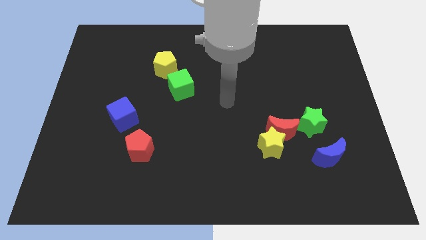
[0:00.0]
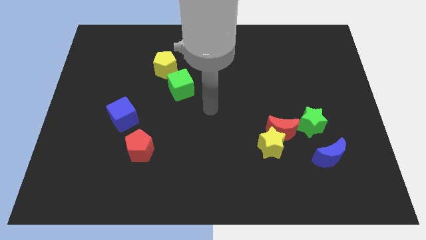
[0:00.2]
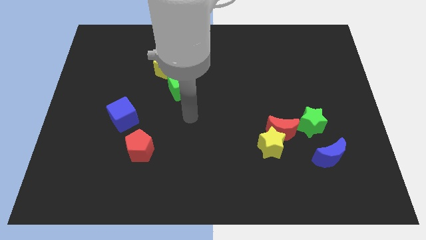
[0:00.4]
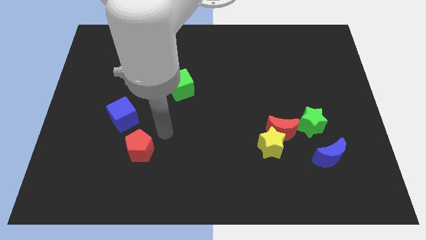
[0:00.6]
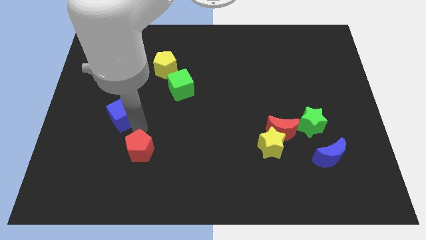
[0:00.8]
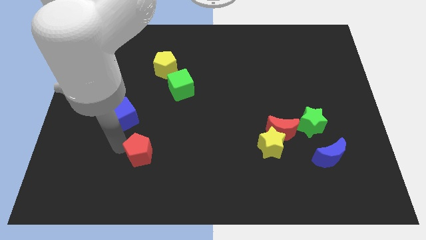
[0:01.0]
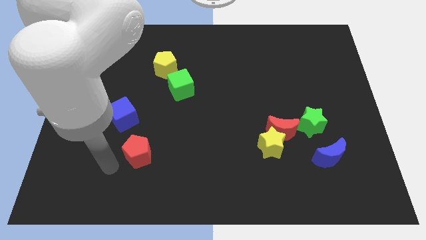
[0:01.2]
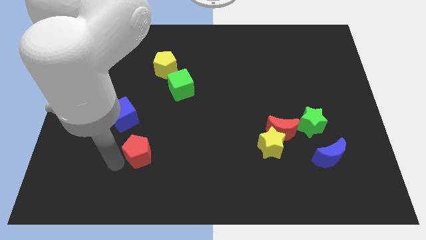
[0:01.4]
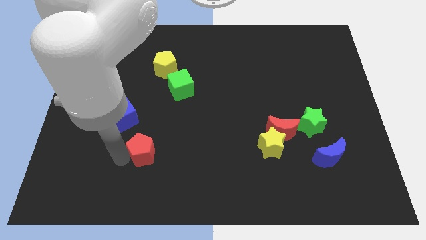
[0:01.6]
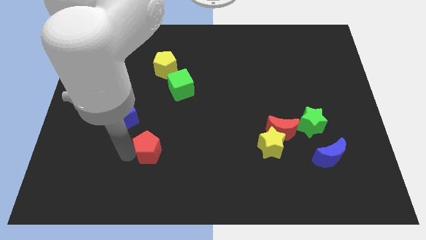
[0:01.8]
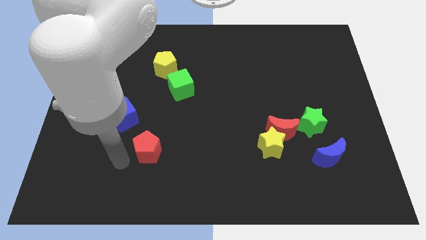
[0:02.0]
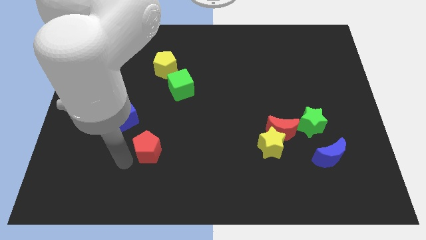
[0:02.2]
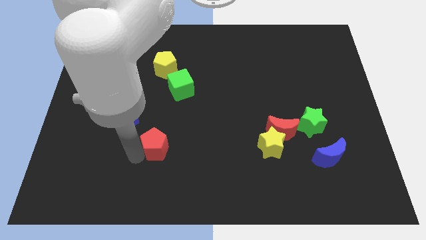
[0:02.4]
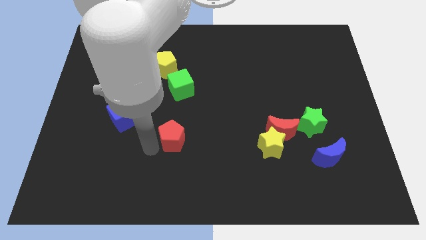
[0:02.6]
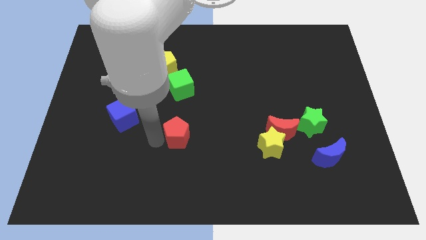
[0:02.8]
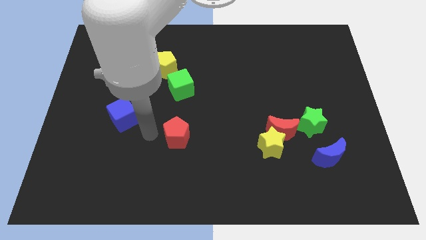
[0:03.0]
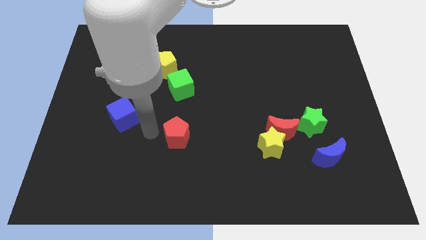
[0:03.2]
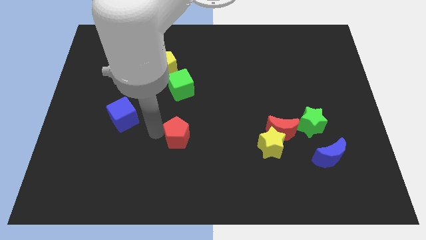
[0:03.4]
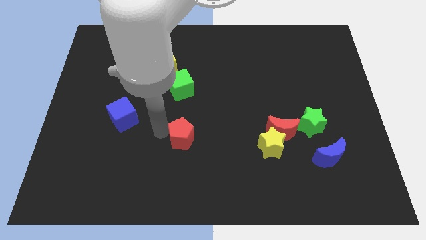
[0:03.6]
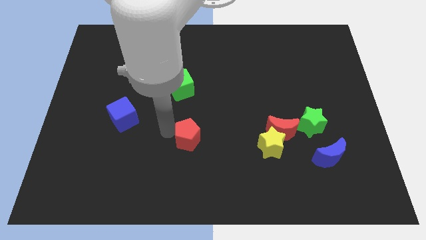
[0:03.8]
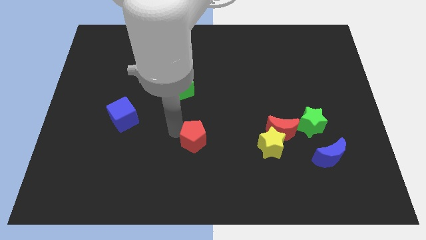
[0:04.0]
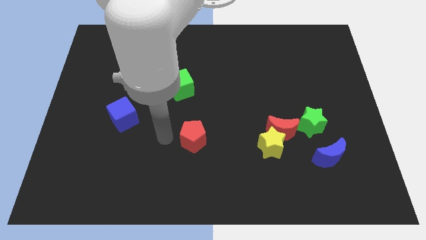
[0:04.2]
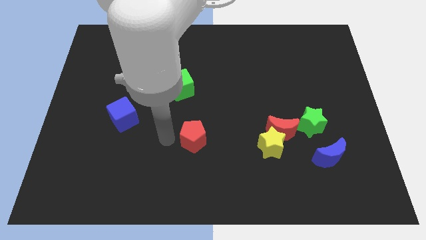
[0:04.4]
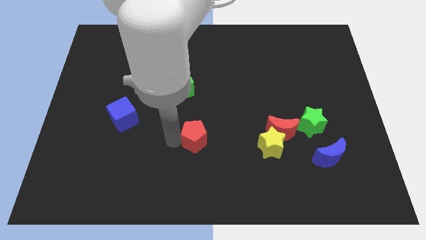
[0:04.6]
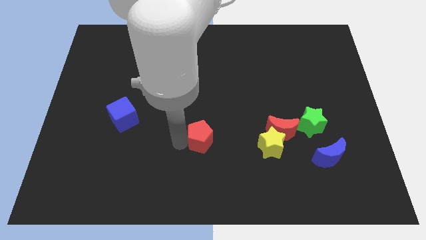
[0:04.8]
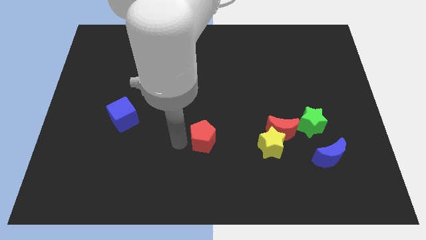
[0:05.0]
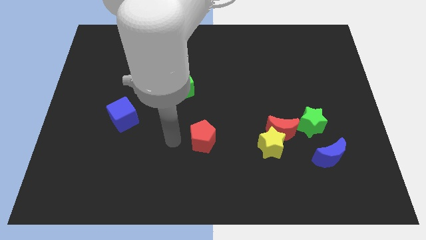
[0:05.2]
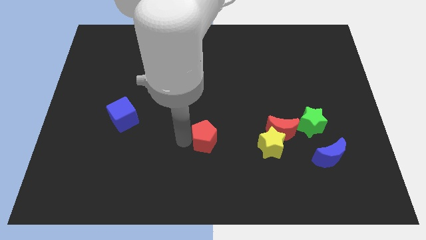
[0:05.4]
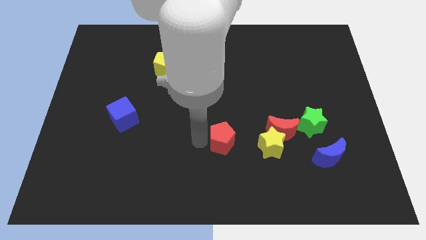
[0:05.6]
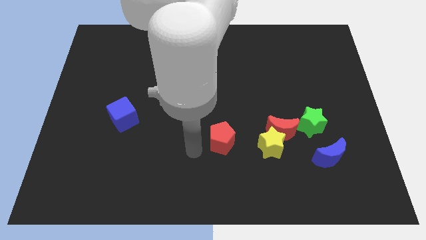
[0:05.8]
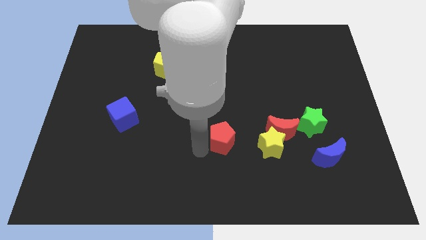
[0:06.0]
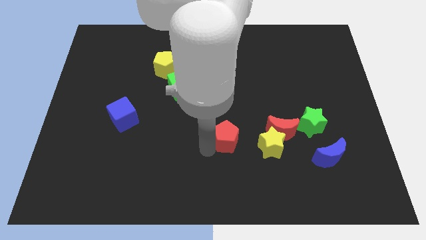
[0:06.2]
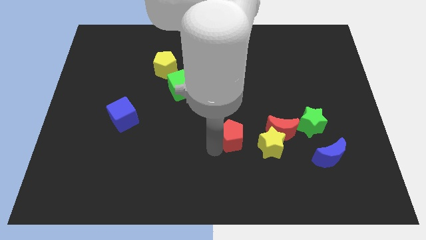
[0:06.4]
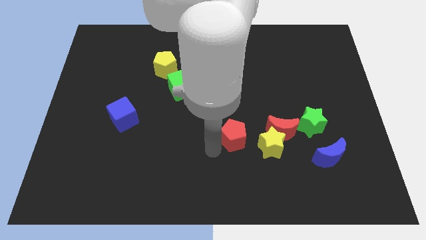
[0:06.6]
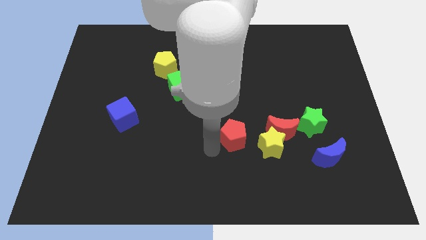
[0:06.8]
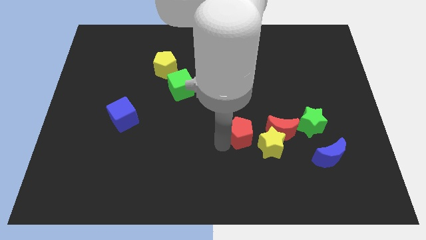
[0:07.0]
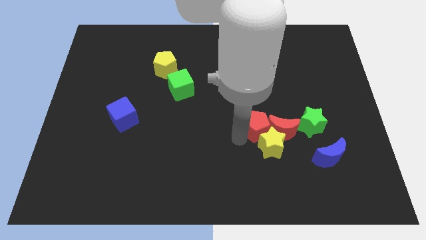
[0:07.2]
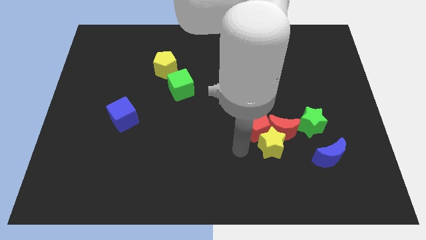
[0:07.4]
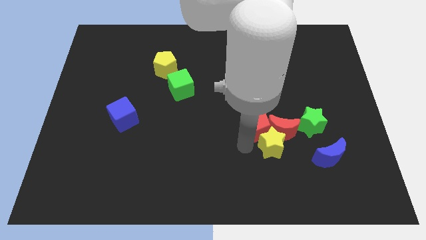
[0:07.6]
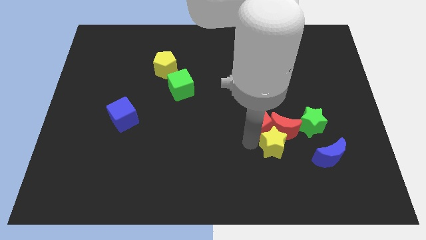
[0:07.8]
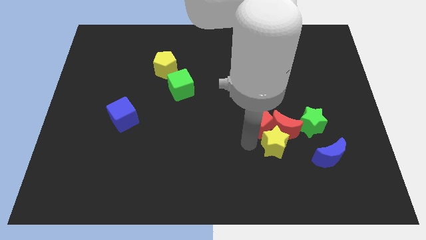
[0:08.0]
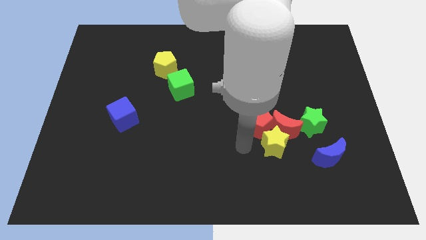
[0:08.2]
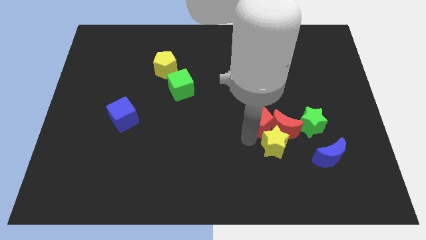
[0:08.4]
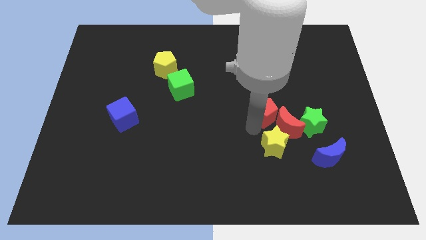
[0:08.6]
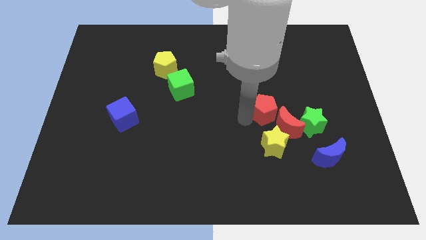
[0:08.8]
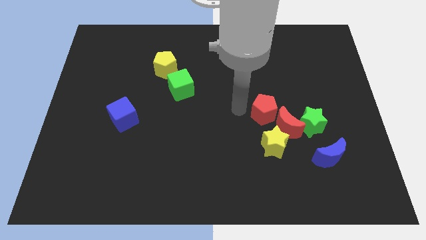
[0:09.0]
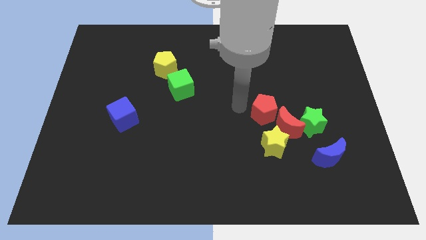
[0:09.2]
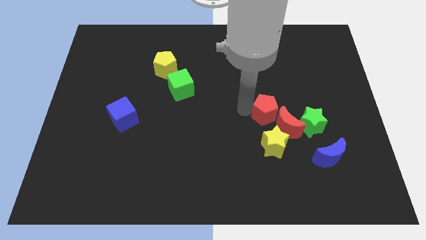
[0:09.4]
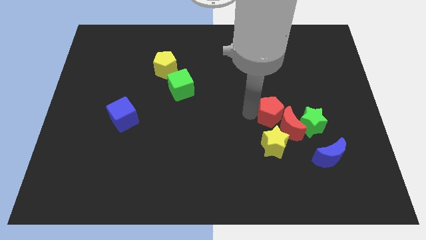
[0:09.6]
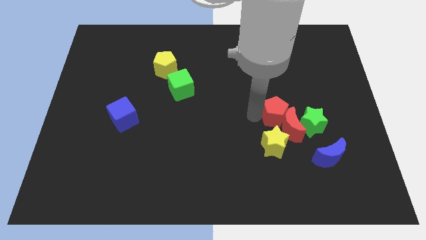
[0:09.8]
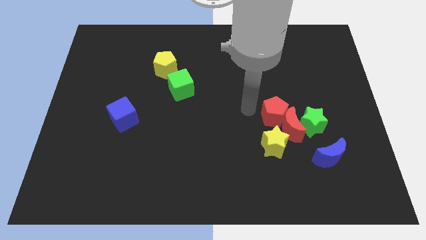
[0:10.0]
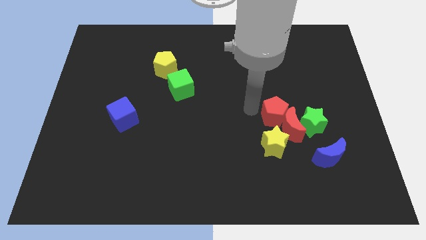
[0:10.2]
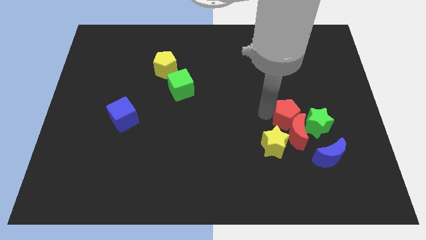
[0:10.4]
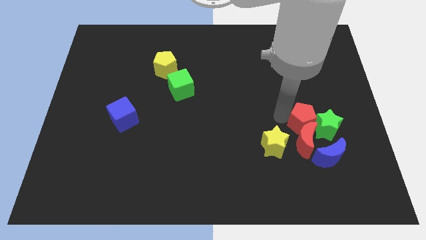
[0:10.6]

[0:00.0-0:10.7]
push the red pentagon next to the green star

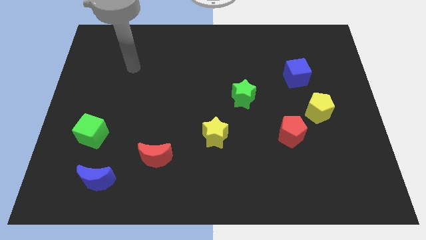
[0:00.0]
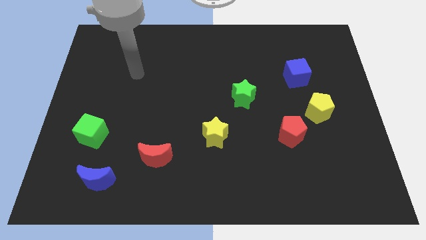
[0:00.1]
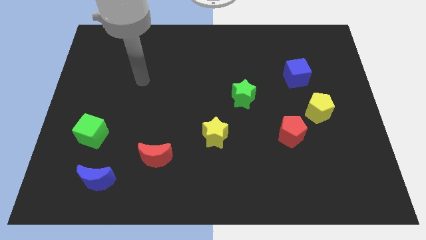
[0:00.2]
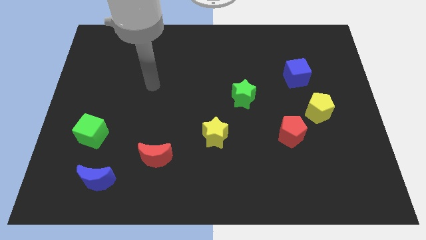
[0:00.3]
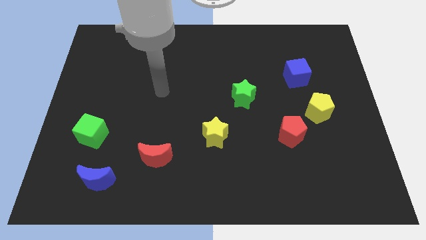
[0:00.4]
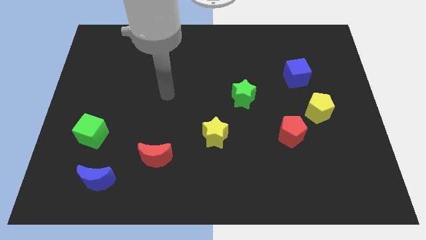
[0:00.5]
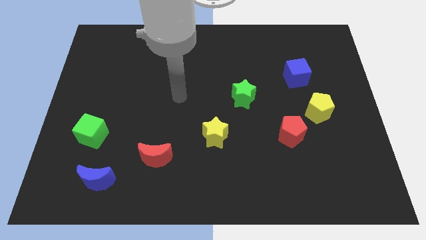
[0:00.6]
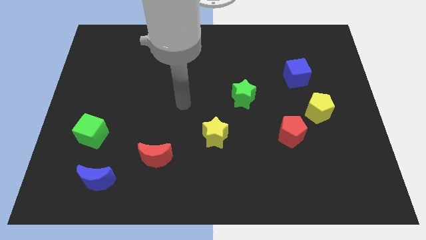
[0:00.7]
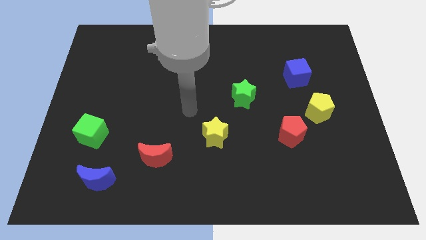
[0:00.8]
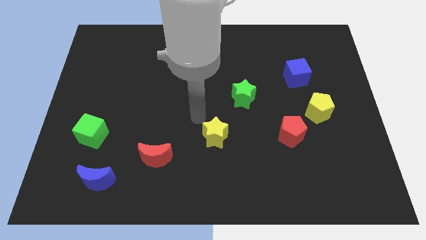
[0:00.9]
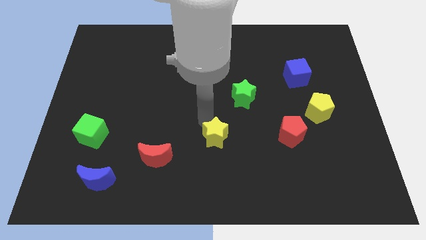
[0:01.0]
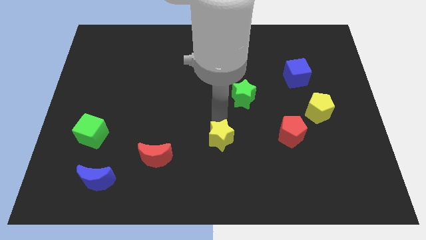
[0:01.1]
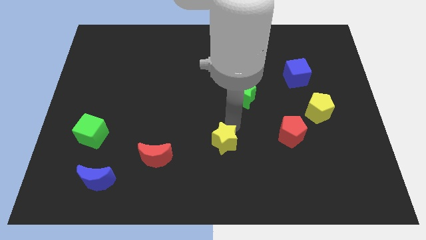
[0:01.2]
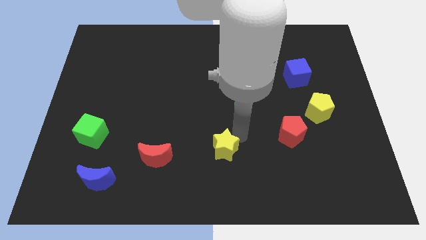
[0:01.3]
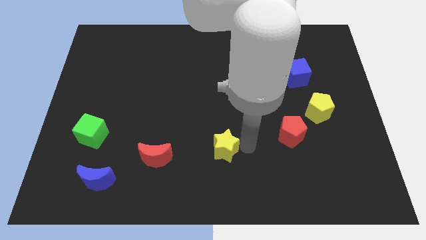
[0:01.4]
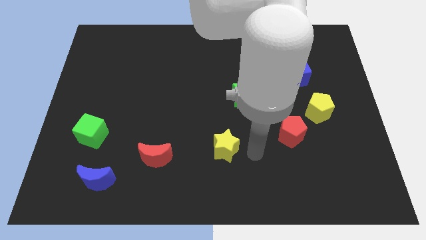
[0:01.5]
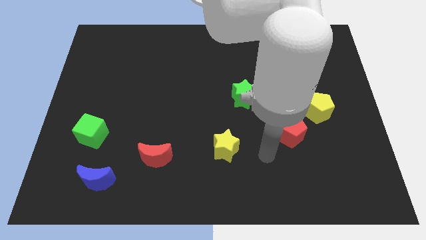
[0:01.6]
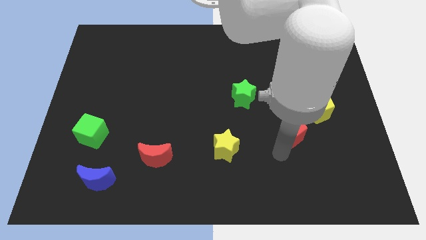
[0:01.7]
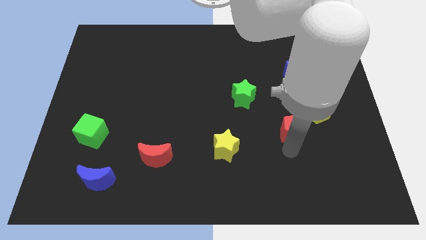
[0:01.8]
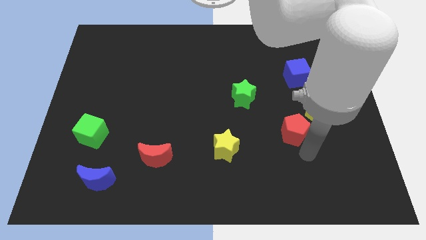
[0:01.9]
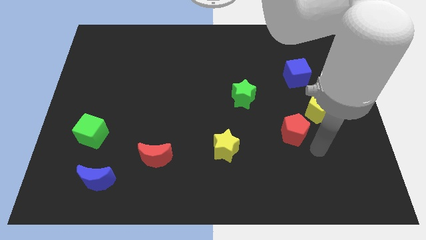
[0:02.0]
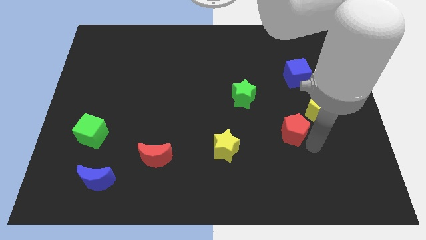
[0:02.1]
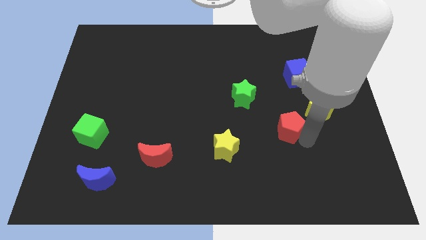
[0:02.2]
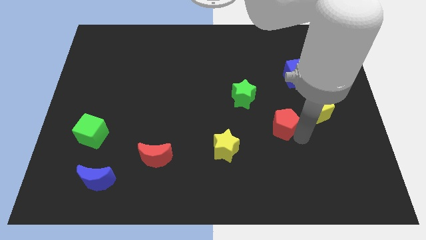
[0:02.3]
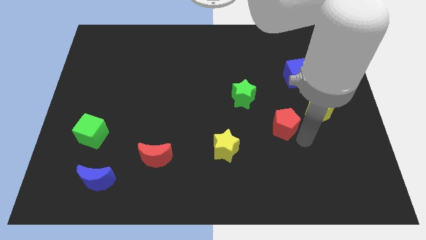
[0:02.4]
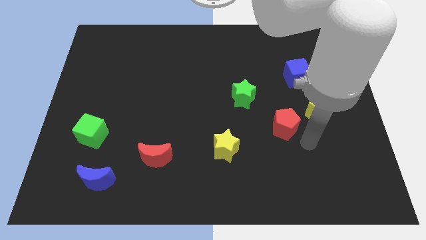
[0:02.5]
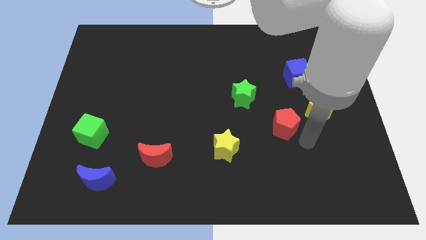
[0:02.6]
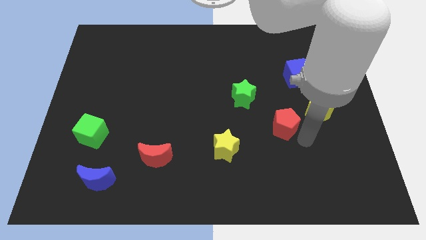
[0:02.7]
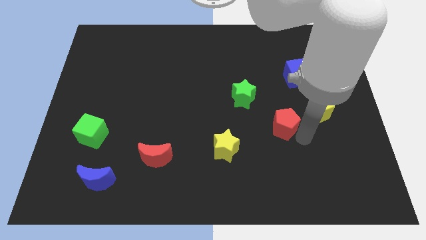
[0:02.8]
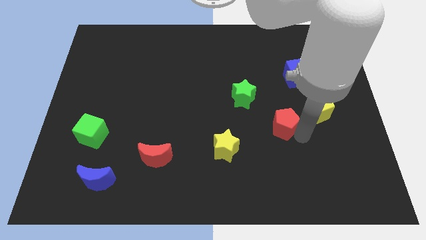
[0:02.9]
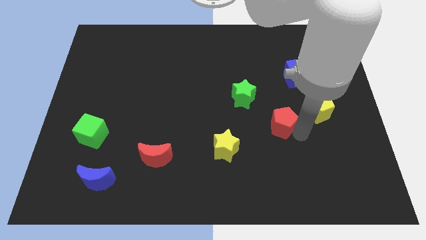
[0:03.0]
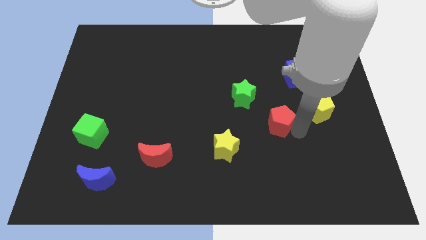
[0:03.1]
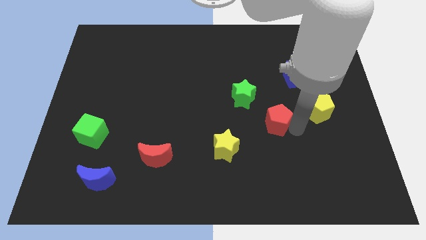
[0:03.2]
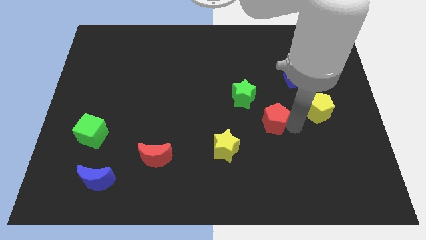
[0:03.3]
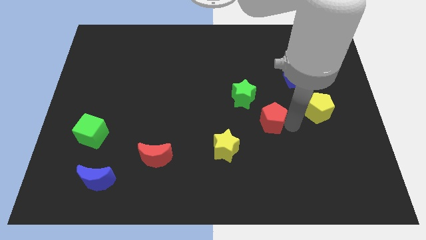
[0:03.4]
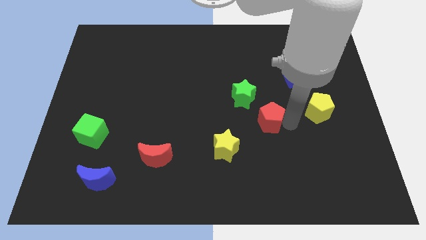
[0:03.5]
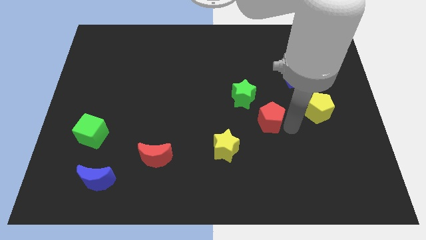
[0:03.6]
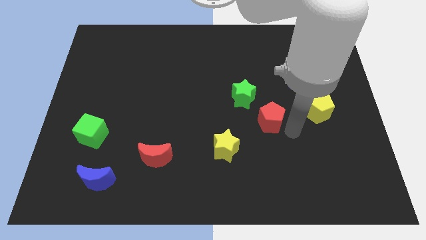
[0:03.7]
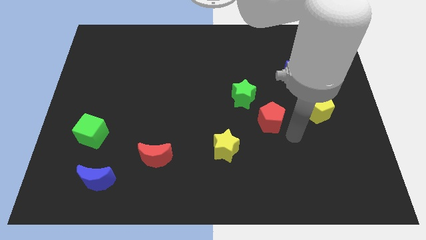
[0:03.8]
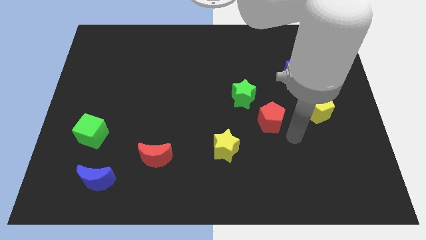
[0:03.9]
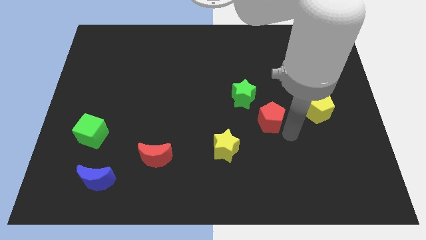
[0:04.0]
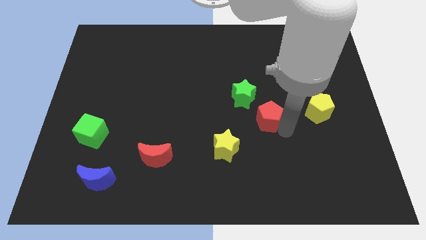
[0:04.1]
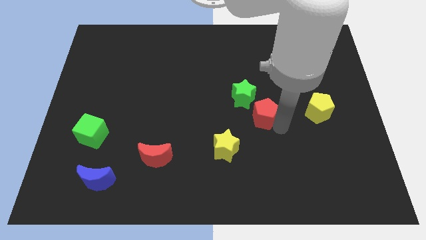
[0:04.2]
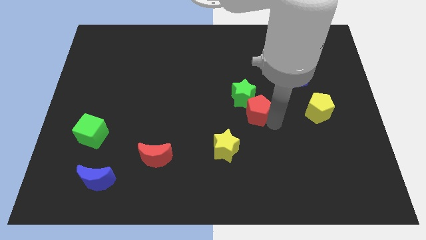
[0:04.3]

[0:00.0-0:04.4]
push the red pentagon close to the green star
